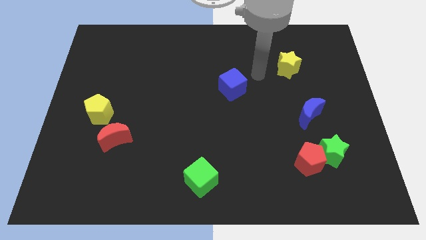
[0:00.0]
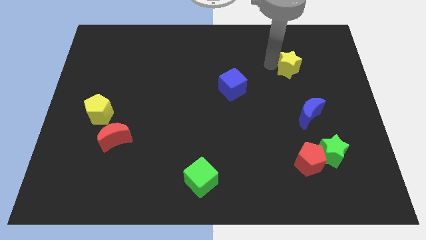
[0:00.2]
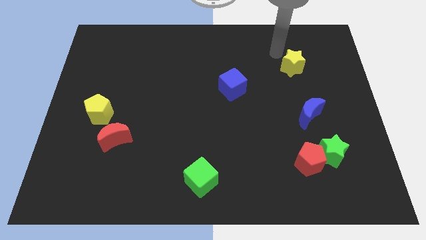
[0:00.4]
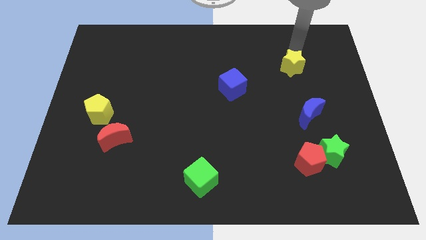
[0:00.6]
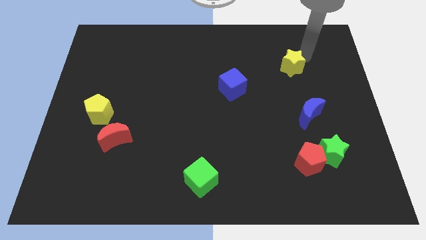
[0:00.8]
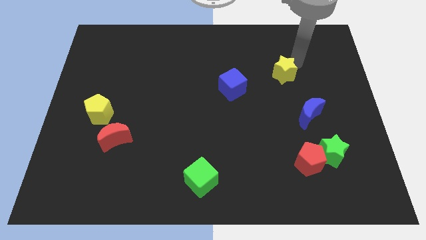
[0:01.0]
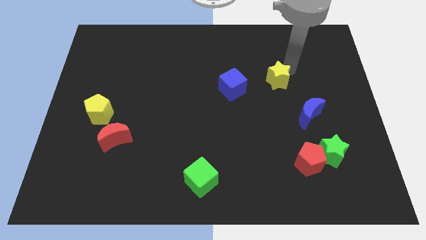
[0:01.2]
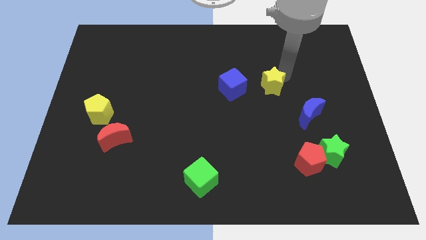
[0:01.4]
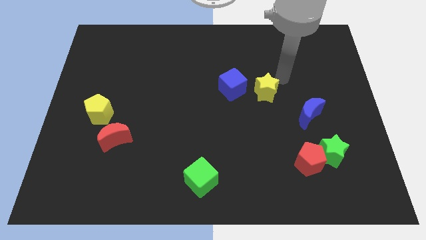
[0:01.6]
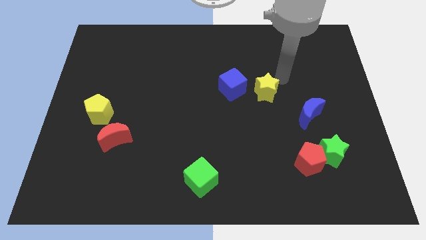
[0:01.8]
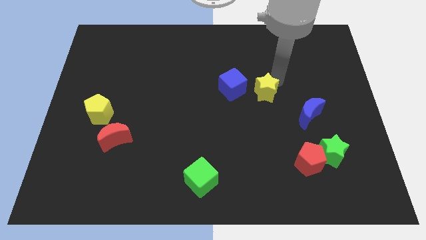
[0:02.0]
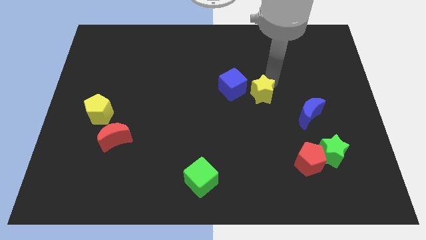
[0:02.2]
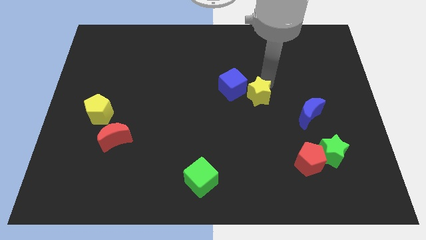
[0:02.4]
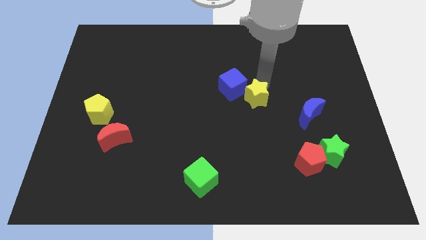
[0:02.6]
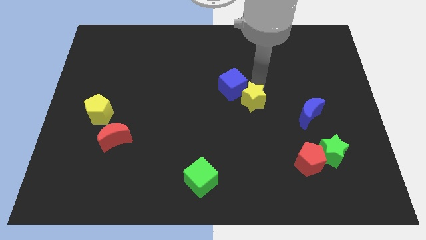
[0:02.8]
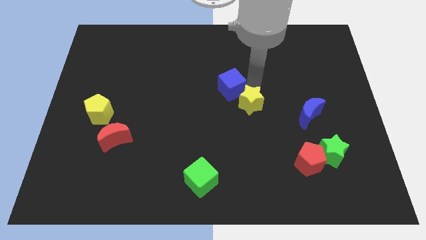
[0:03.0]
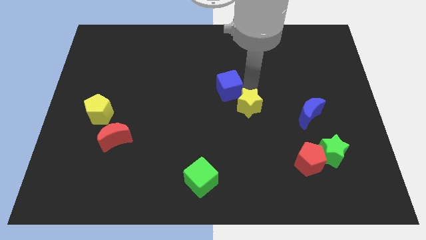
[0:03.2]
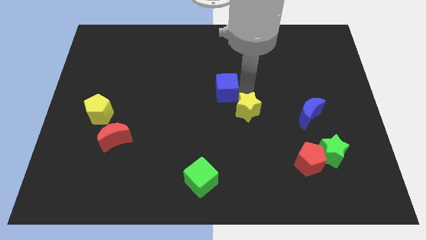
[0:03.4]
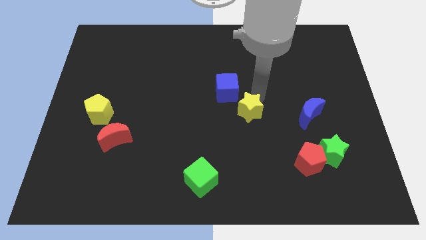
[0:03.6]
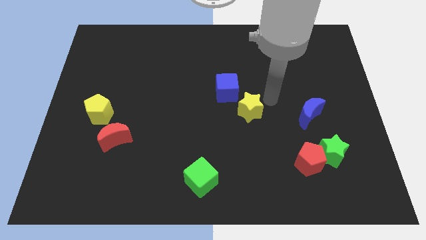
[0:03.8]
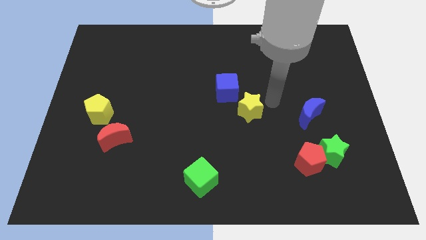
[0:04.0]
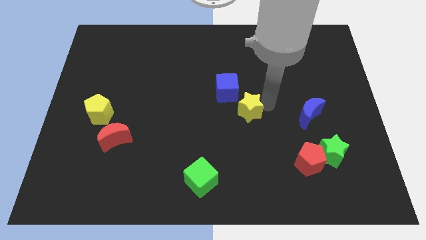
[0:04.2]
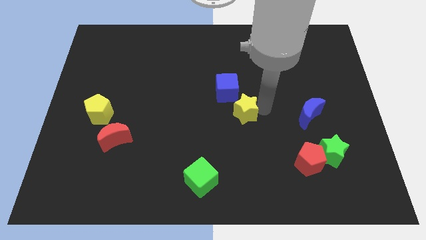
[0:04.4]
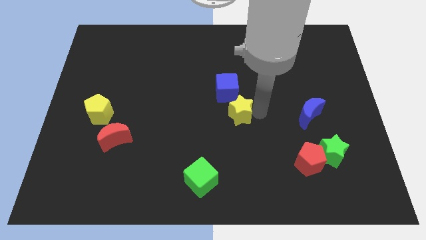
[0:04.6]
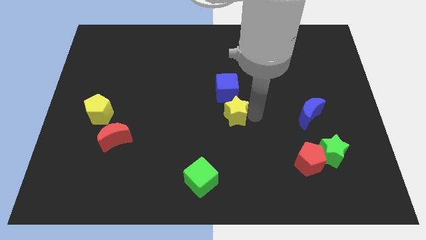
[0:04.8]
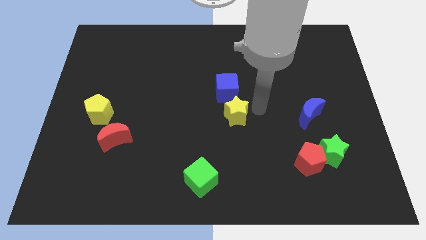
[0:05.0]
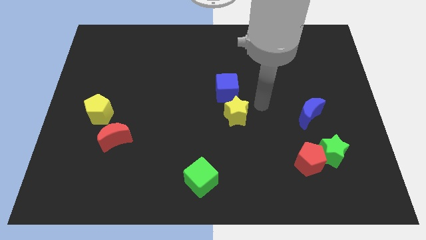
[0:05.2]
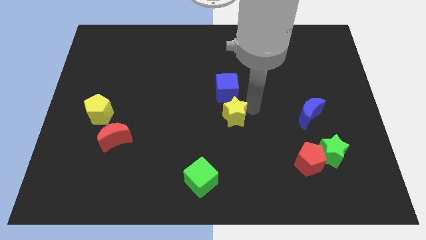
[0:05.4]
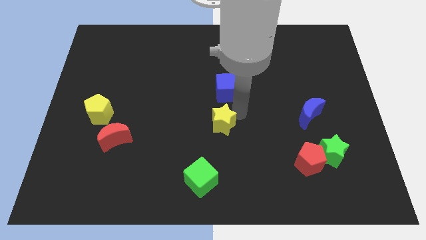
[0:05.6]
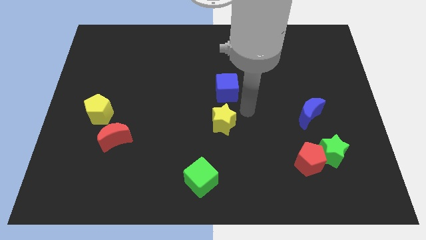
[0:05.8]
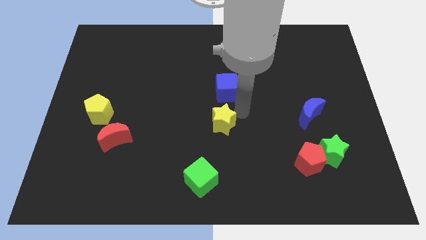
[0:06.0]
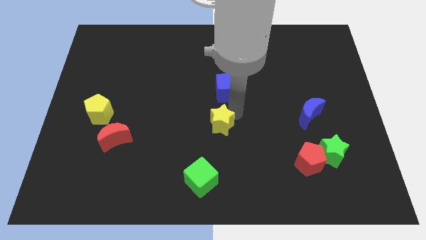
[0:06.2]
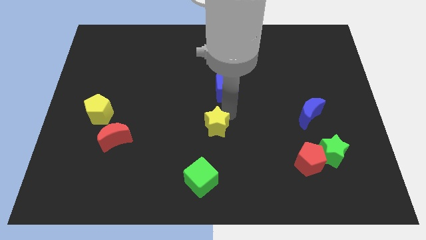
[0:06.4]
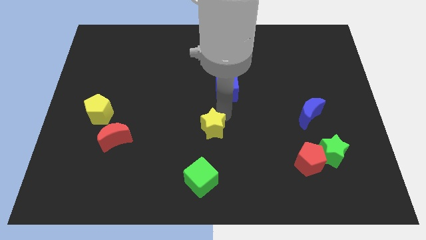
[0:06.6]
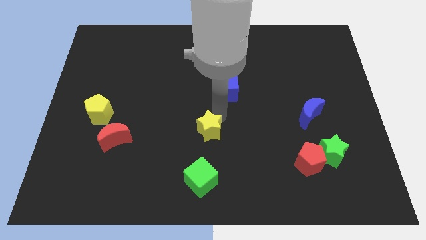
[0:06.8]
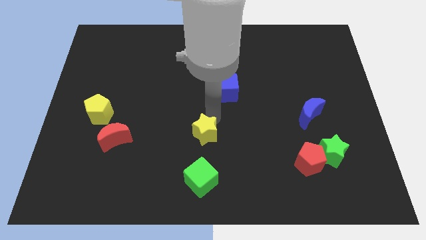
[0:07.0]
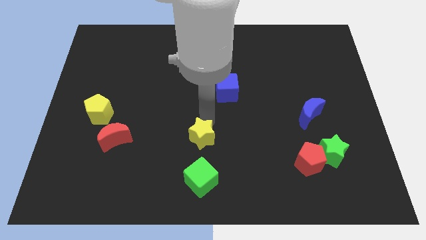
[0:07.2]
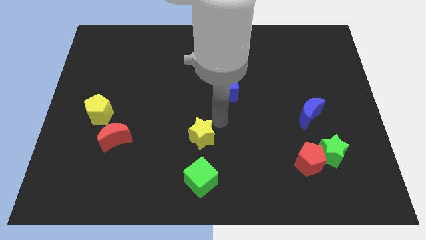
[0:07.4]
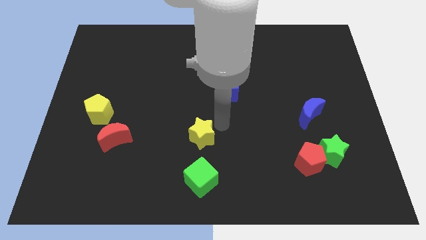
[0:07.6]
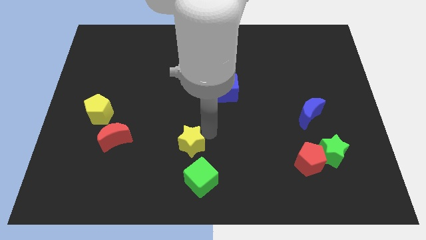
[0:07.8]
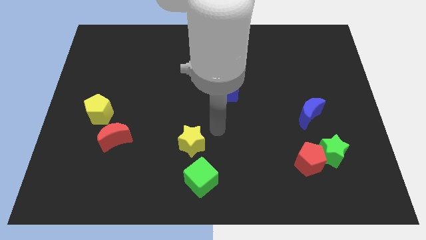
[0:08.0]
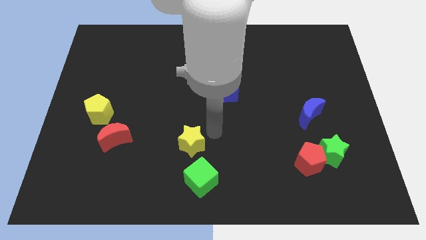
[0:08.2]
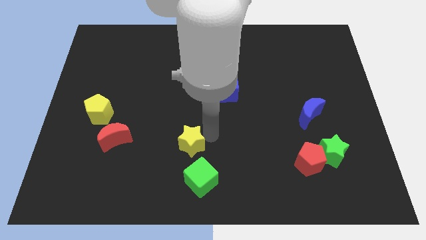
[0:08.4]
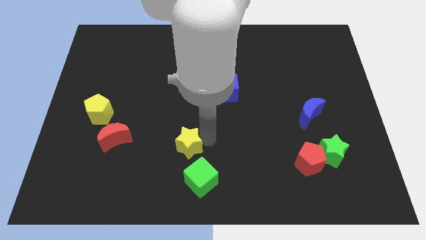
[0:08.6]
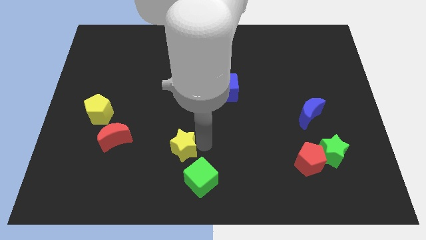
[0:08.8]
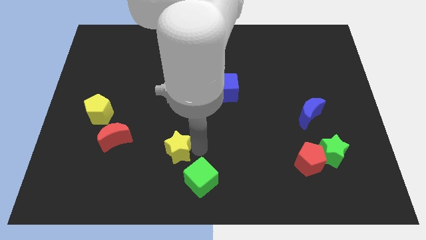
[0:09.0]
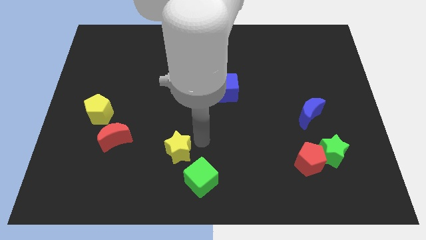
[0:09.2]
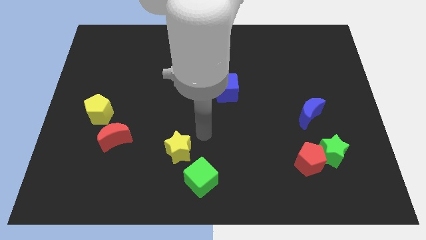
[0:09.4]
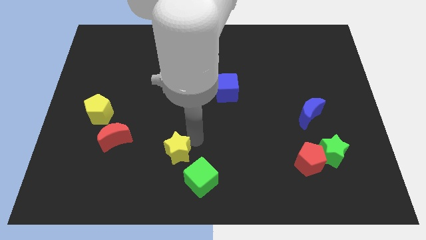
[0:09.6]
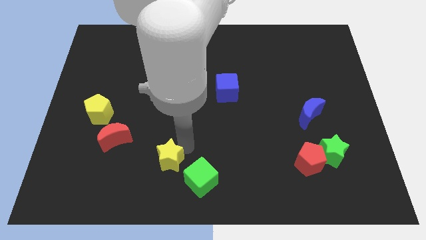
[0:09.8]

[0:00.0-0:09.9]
move the yellow star left of the green cube

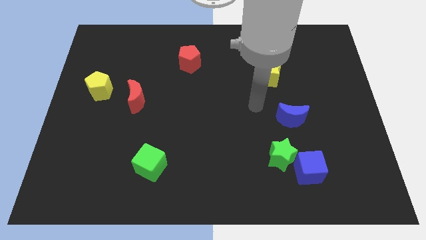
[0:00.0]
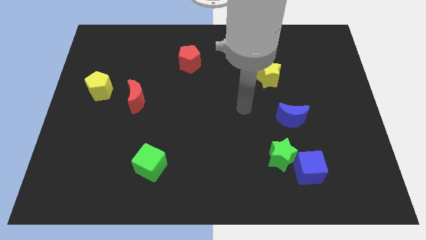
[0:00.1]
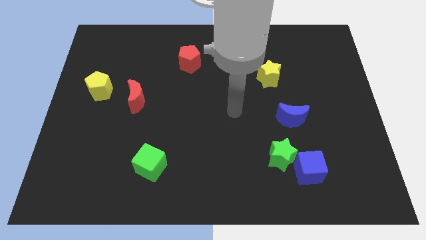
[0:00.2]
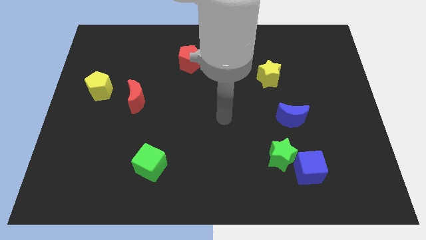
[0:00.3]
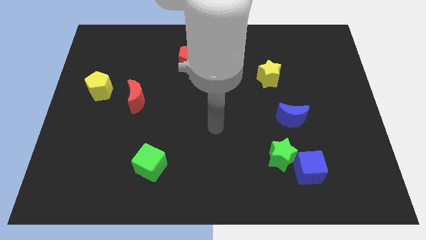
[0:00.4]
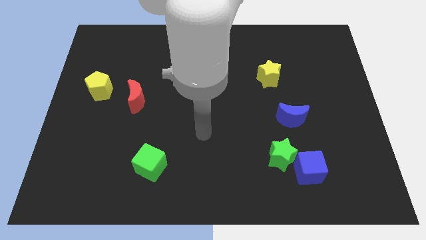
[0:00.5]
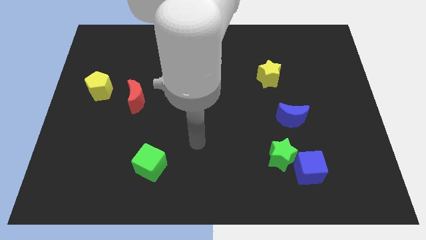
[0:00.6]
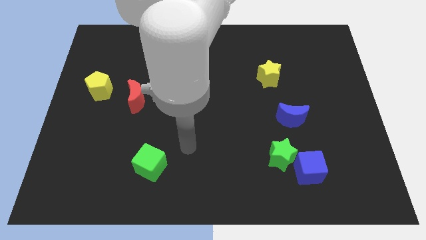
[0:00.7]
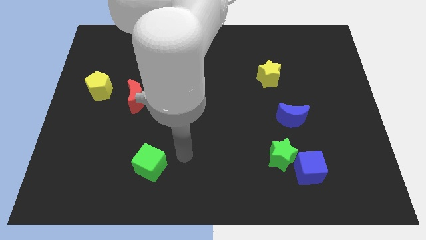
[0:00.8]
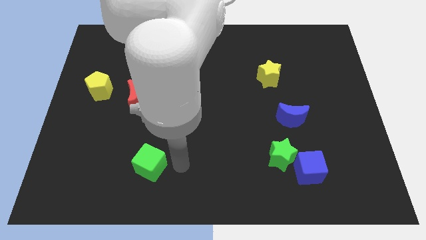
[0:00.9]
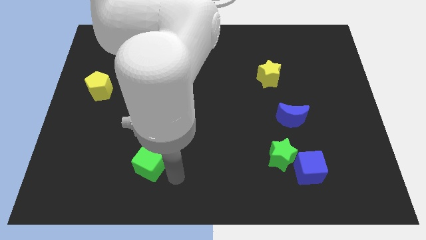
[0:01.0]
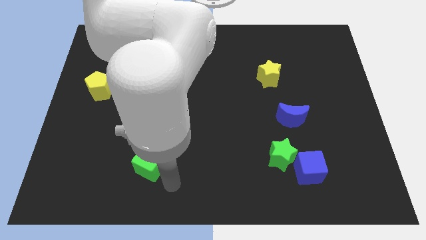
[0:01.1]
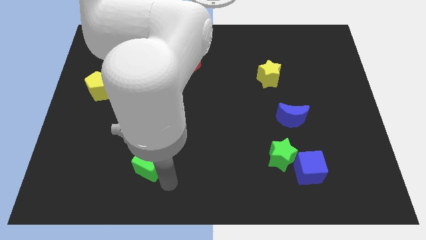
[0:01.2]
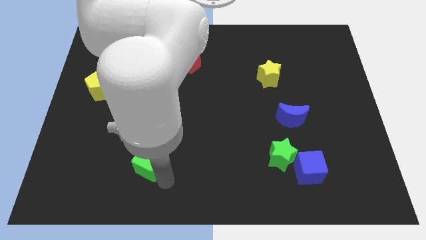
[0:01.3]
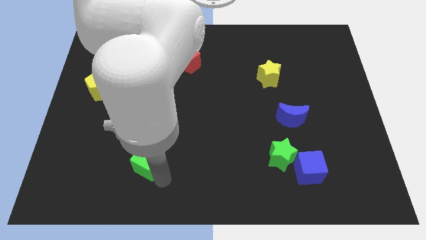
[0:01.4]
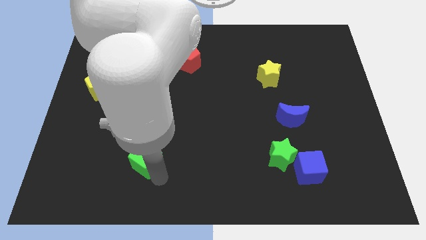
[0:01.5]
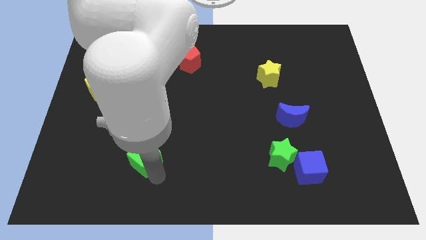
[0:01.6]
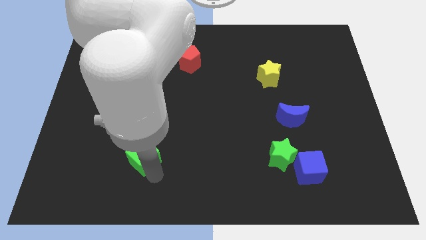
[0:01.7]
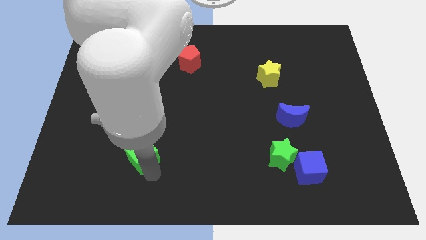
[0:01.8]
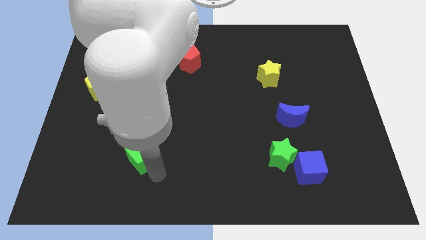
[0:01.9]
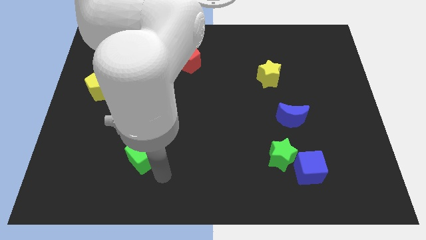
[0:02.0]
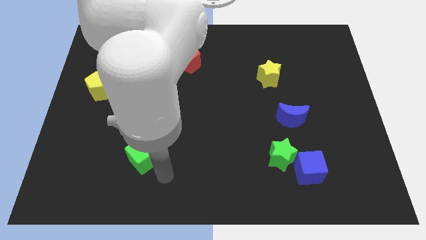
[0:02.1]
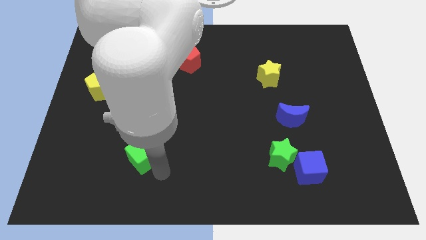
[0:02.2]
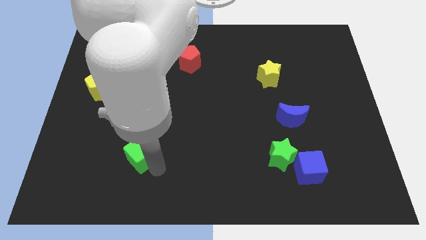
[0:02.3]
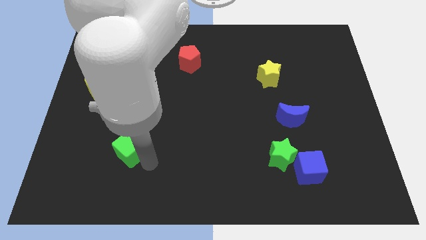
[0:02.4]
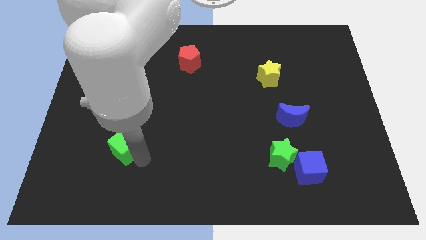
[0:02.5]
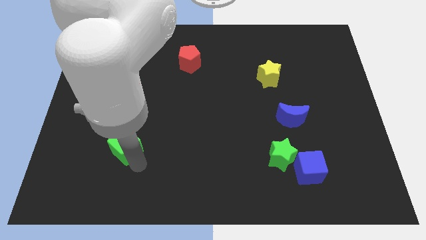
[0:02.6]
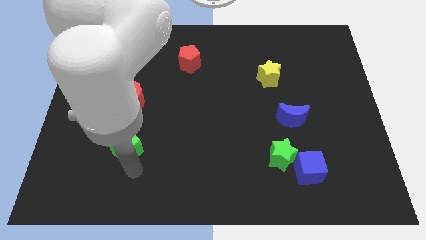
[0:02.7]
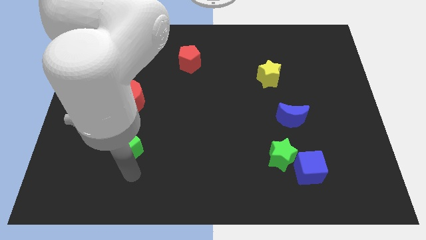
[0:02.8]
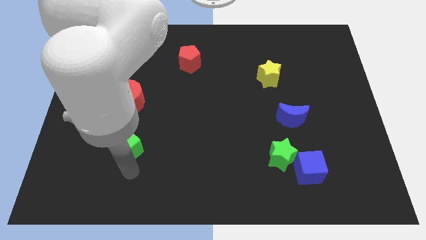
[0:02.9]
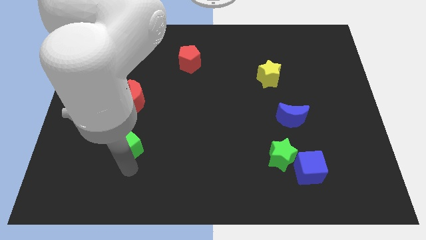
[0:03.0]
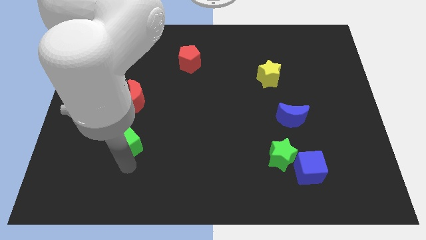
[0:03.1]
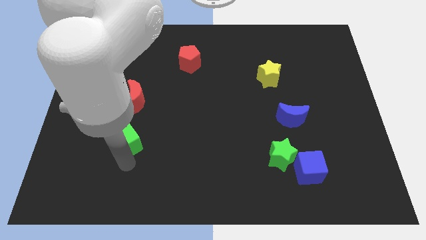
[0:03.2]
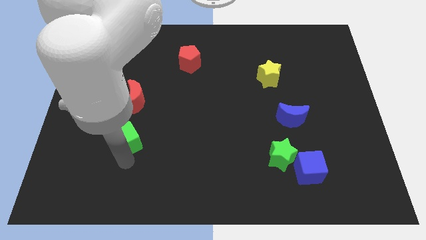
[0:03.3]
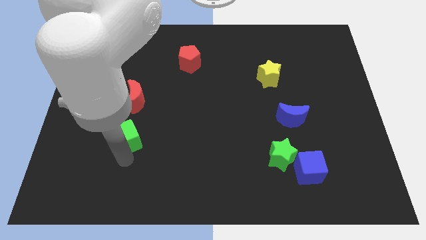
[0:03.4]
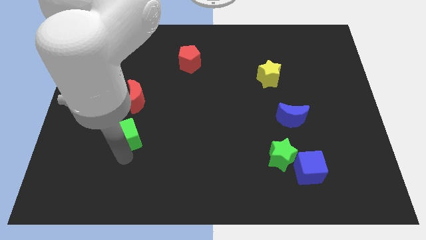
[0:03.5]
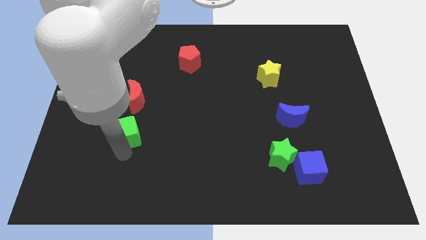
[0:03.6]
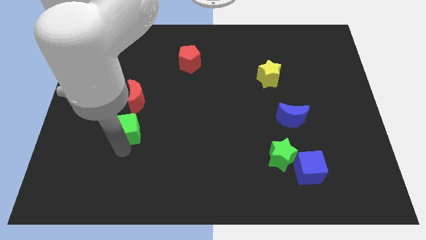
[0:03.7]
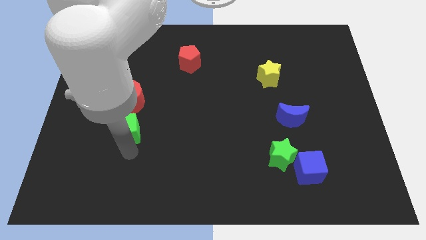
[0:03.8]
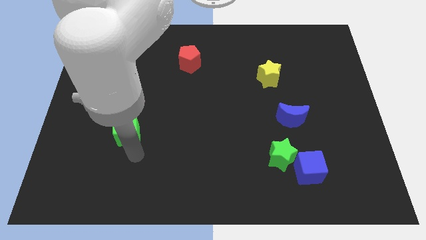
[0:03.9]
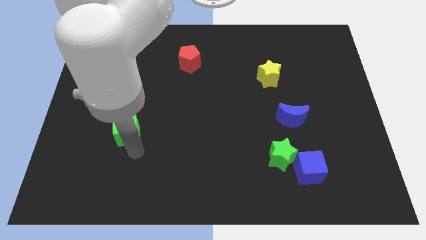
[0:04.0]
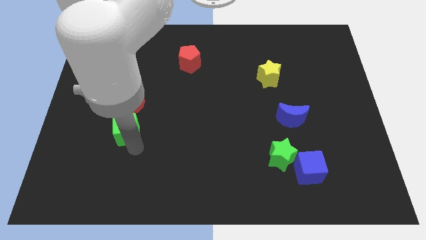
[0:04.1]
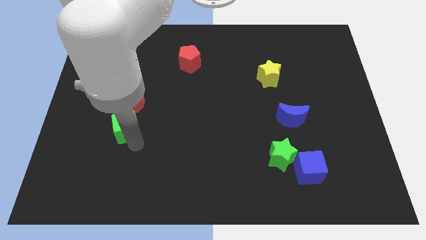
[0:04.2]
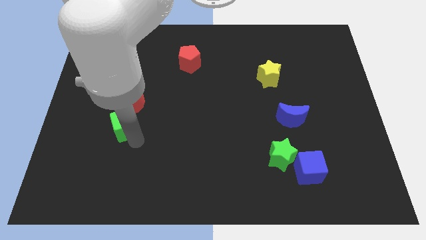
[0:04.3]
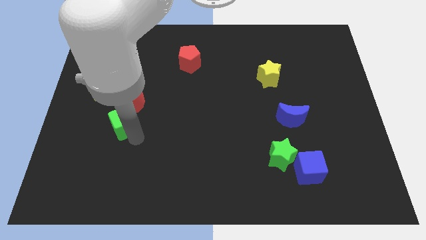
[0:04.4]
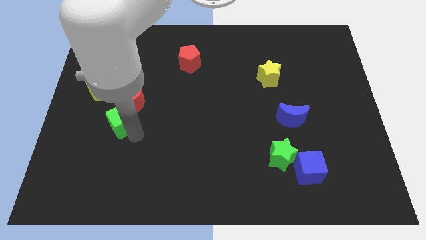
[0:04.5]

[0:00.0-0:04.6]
put the green cube to the bottom right side of the yellow pentagon
